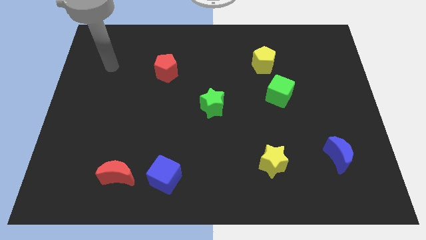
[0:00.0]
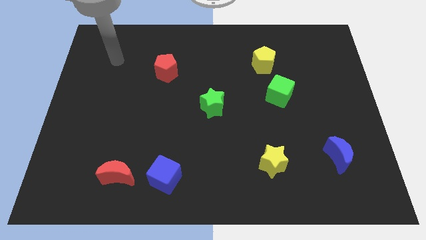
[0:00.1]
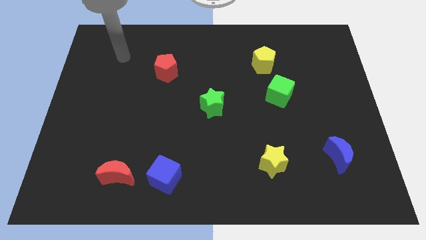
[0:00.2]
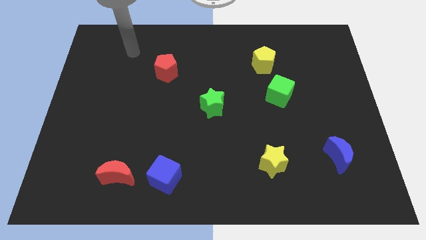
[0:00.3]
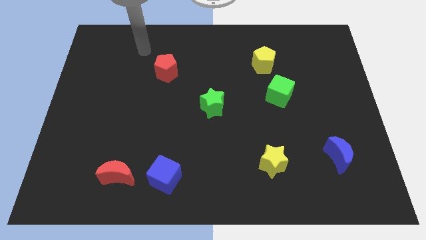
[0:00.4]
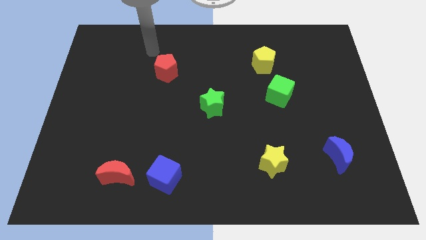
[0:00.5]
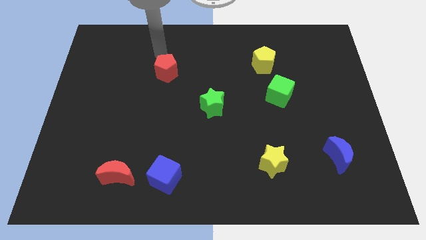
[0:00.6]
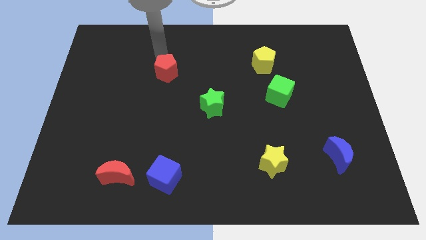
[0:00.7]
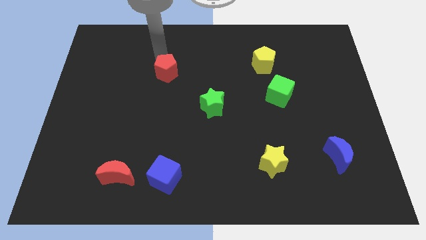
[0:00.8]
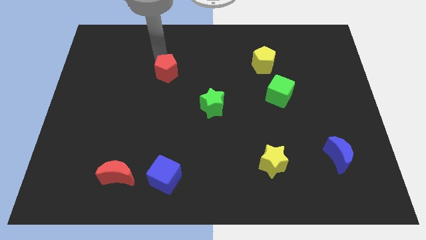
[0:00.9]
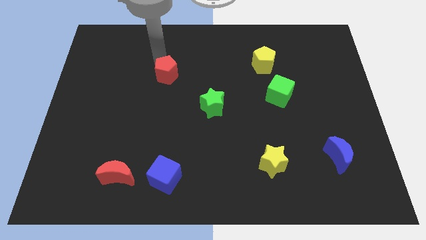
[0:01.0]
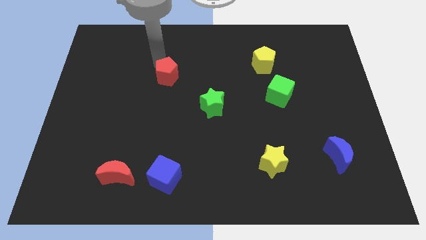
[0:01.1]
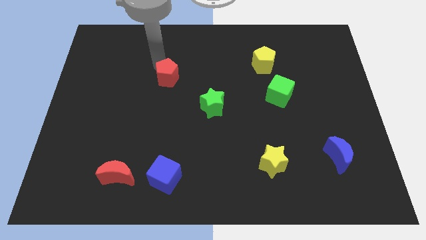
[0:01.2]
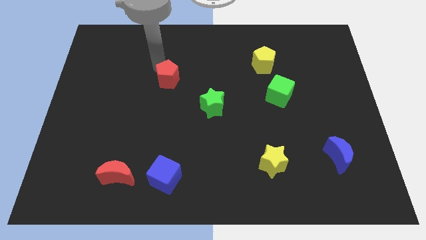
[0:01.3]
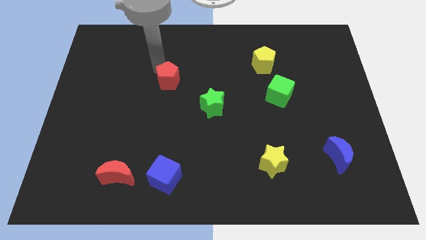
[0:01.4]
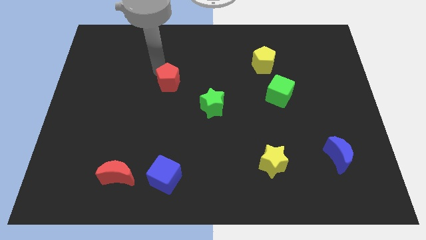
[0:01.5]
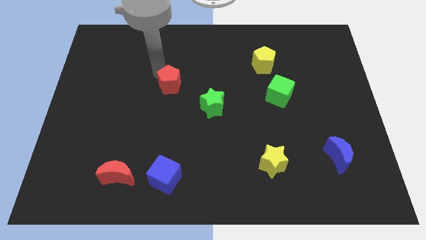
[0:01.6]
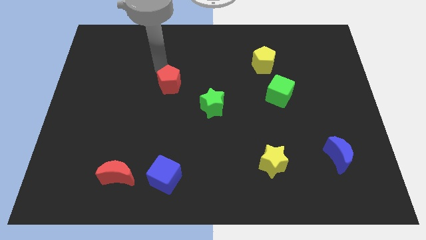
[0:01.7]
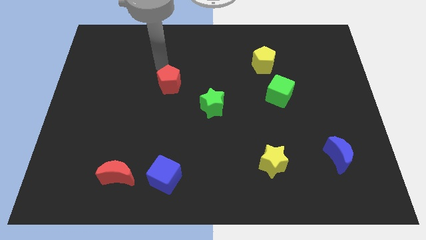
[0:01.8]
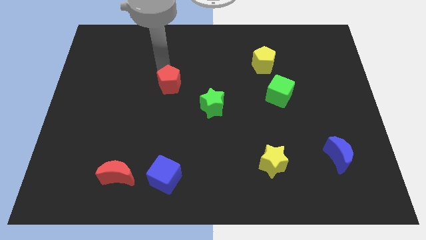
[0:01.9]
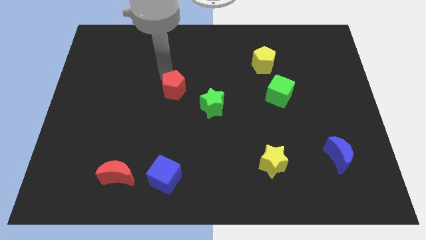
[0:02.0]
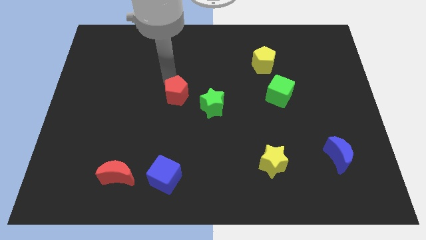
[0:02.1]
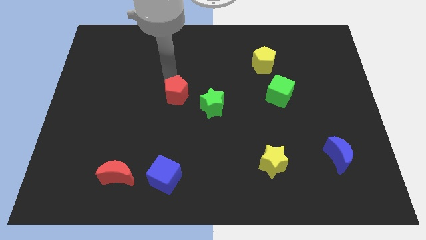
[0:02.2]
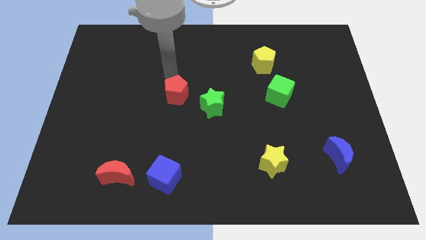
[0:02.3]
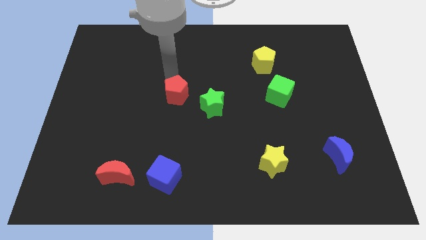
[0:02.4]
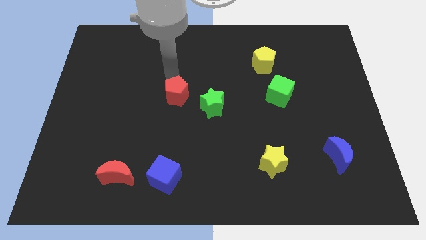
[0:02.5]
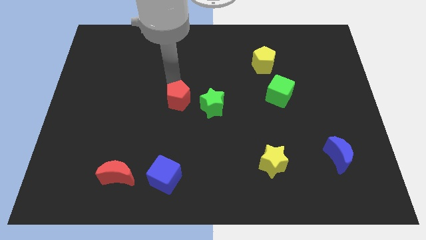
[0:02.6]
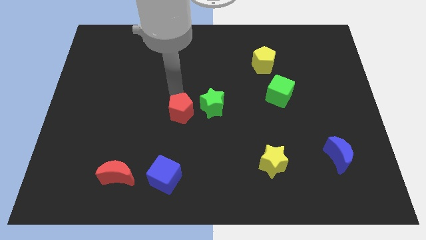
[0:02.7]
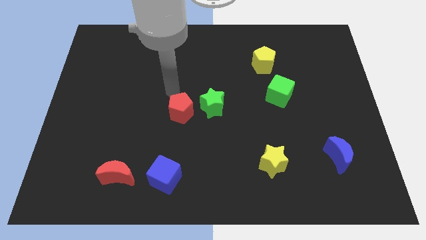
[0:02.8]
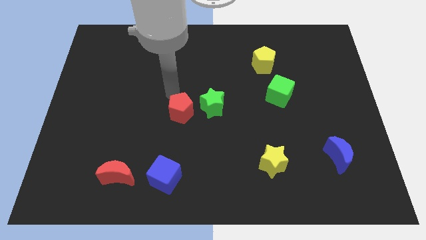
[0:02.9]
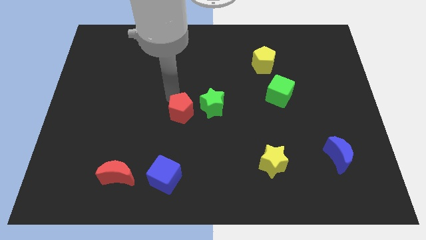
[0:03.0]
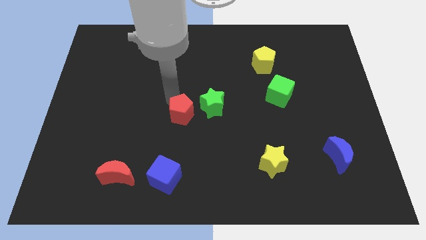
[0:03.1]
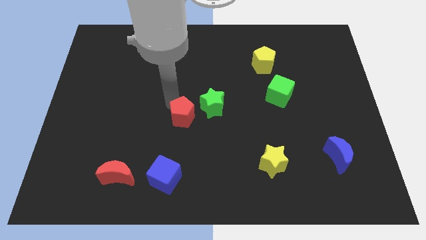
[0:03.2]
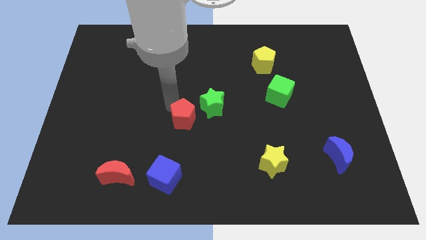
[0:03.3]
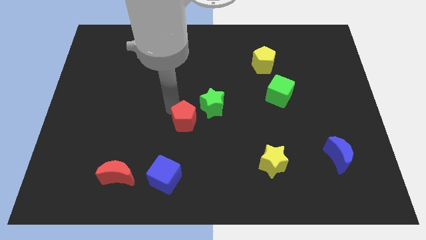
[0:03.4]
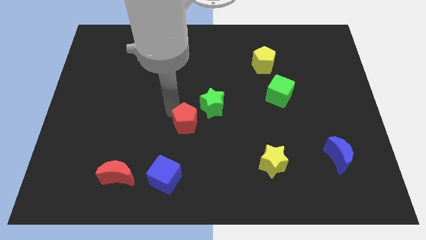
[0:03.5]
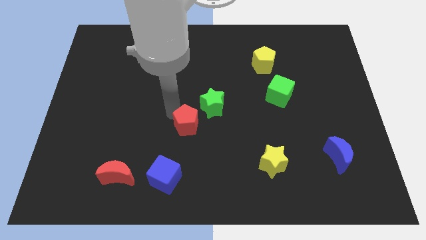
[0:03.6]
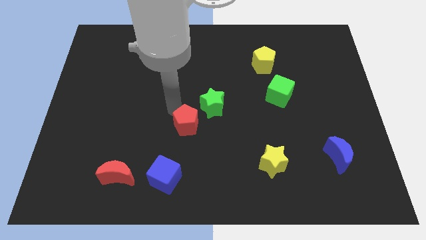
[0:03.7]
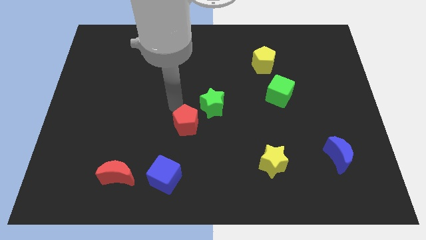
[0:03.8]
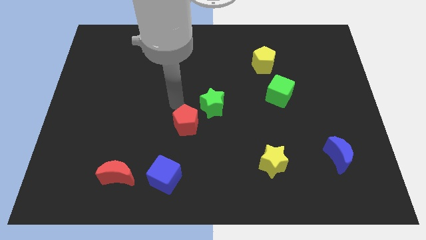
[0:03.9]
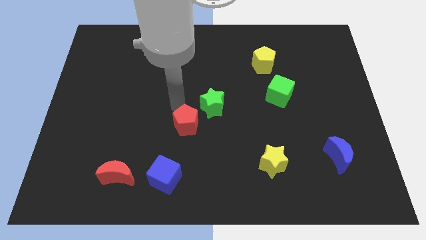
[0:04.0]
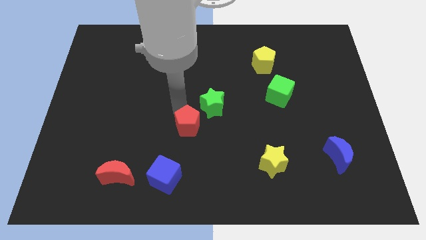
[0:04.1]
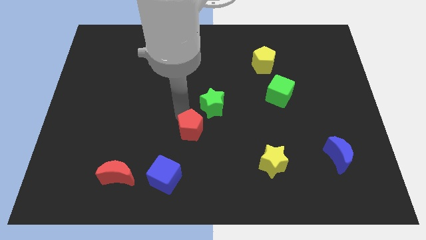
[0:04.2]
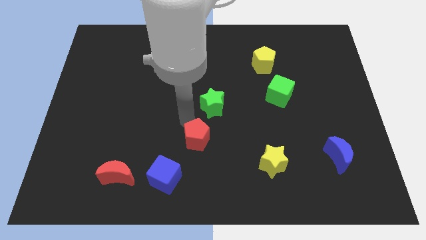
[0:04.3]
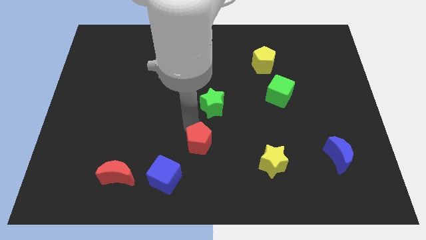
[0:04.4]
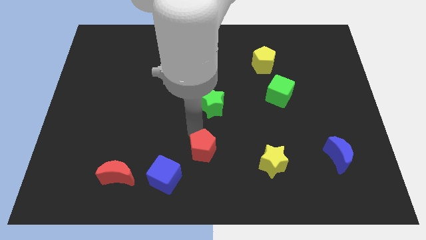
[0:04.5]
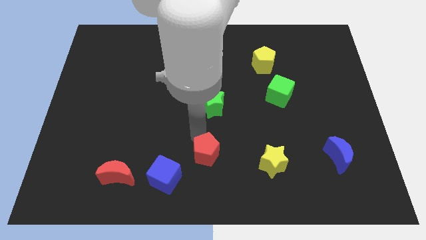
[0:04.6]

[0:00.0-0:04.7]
put the red pentagon to the bottom

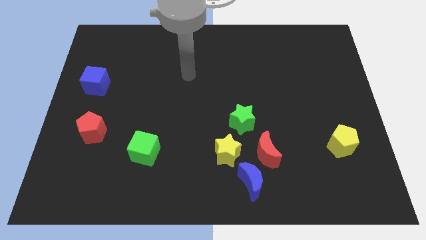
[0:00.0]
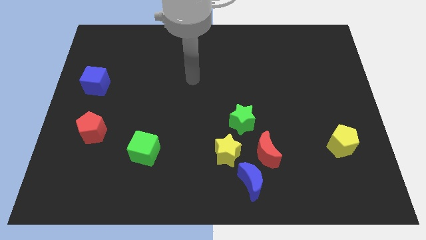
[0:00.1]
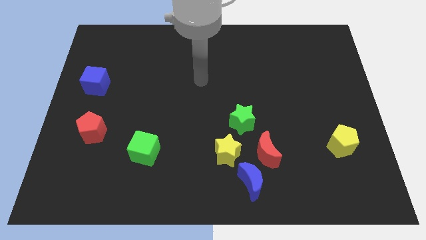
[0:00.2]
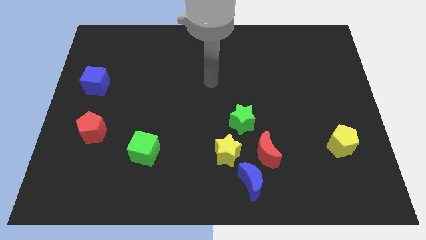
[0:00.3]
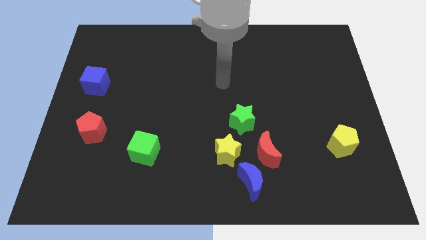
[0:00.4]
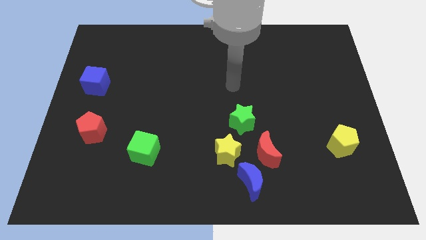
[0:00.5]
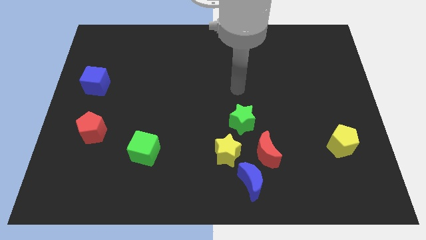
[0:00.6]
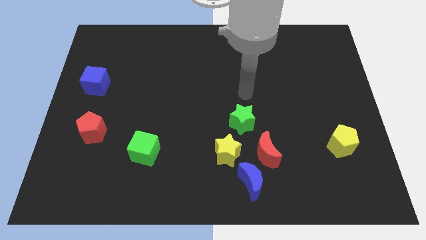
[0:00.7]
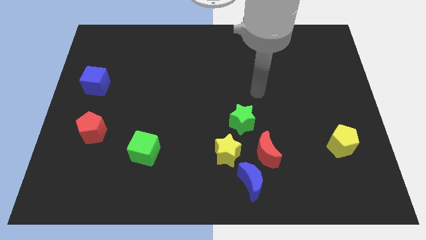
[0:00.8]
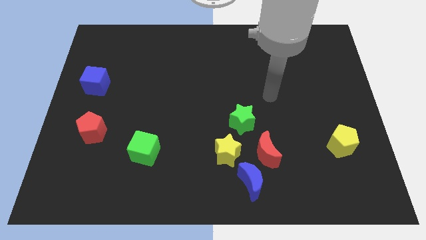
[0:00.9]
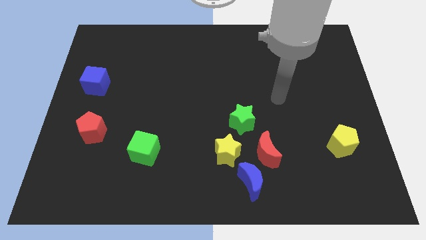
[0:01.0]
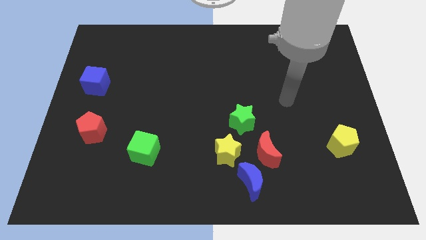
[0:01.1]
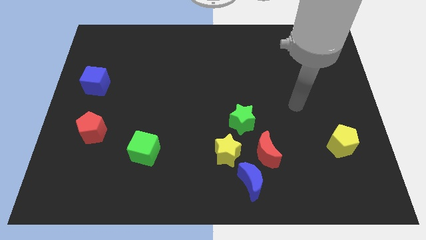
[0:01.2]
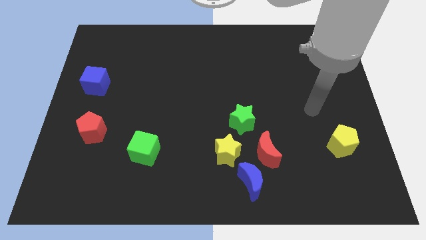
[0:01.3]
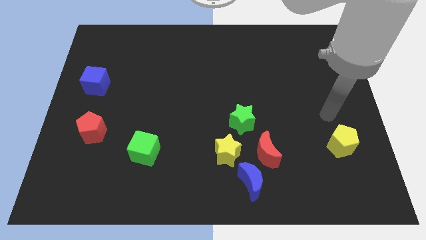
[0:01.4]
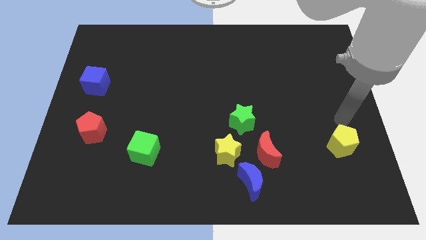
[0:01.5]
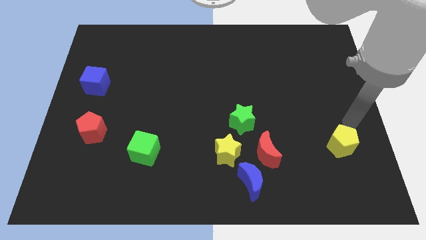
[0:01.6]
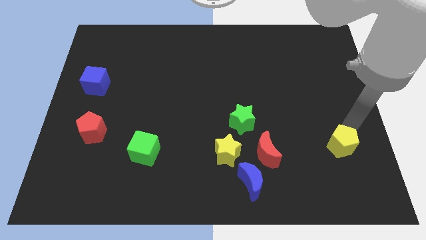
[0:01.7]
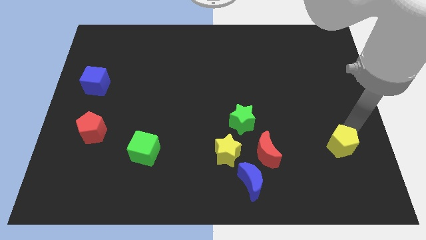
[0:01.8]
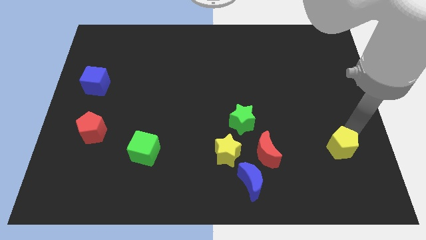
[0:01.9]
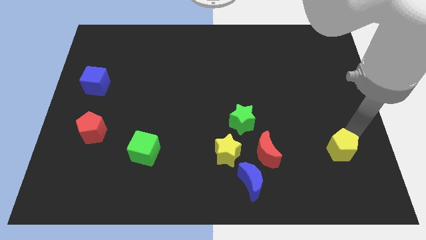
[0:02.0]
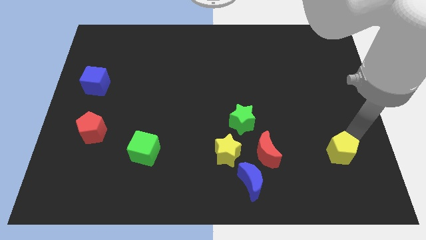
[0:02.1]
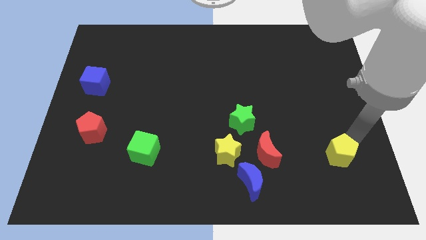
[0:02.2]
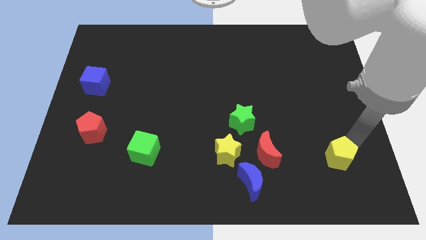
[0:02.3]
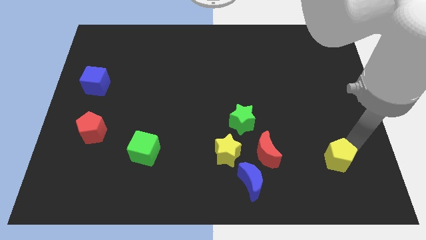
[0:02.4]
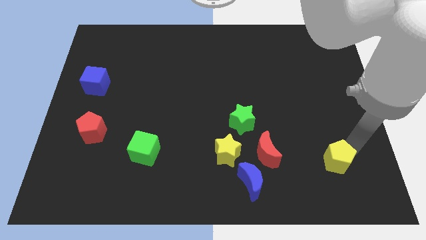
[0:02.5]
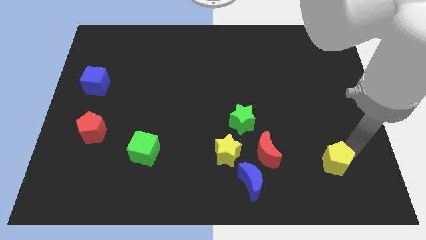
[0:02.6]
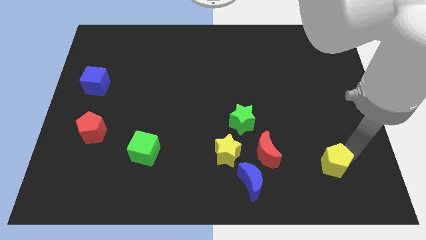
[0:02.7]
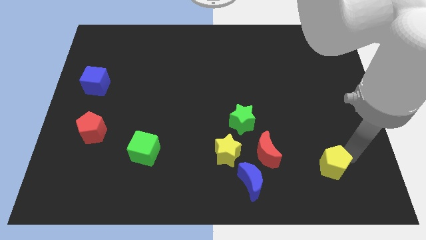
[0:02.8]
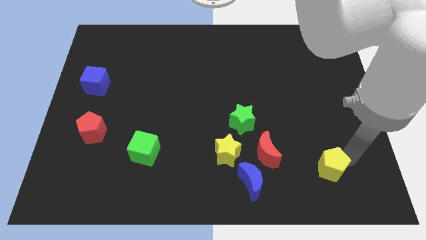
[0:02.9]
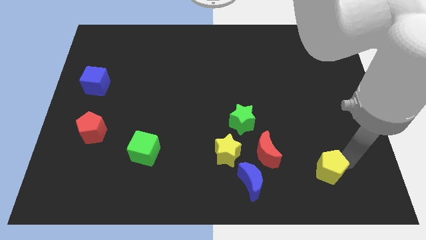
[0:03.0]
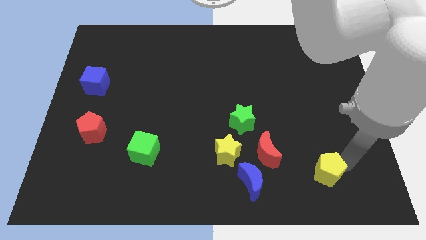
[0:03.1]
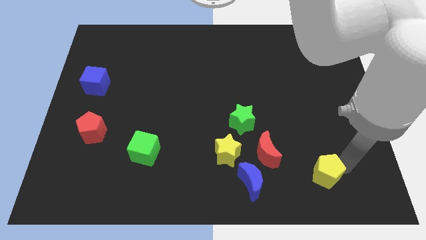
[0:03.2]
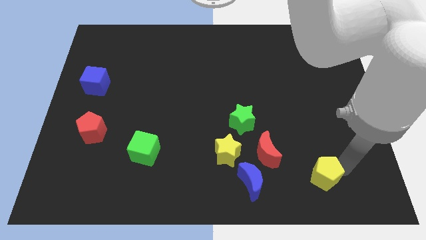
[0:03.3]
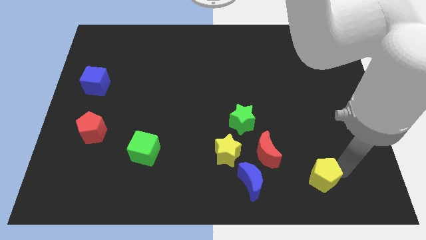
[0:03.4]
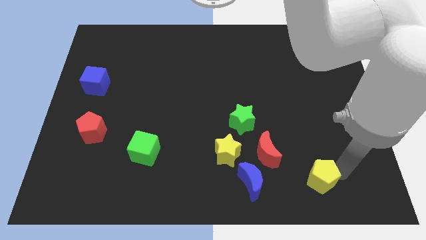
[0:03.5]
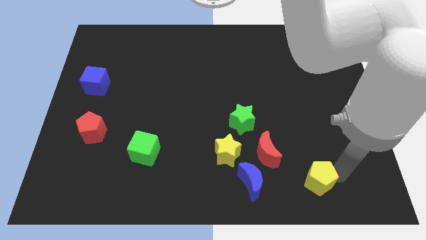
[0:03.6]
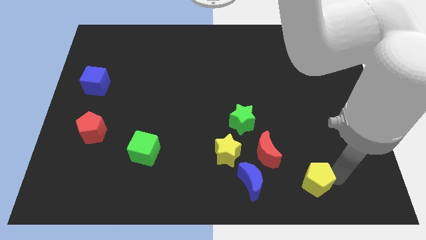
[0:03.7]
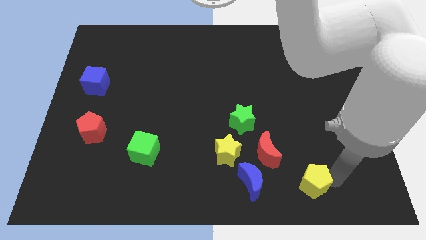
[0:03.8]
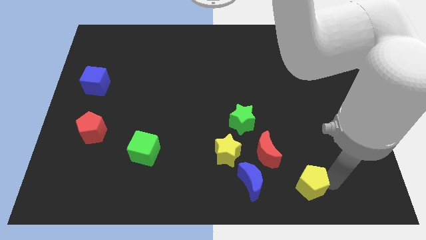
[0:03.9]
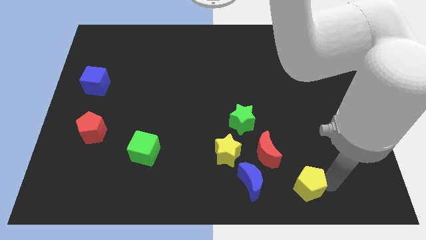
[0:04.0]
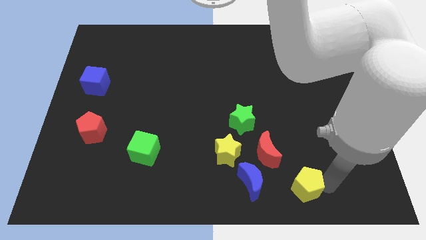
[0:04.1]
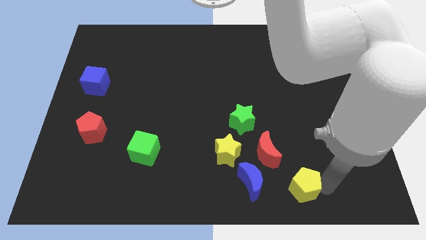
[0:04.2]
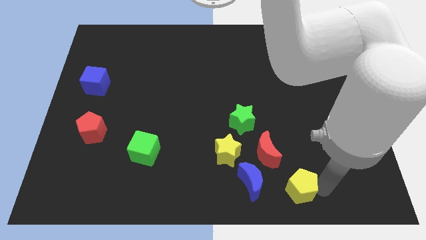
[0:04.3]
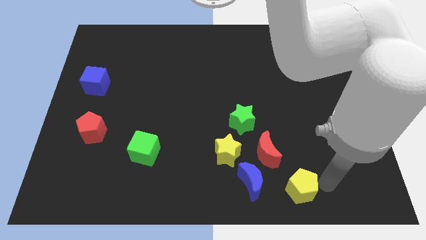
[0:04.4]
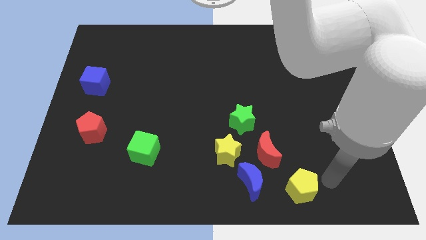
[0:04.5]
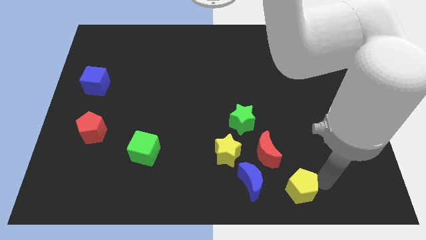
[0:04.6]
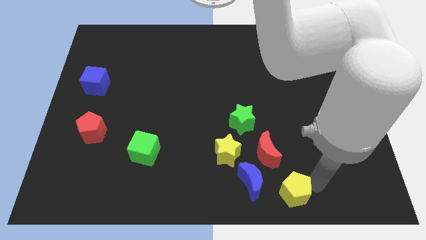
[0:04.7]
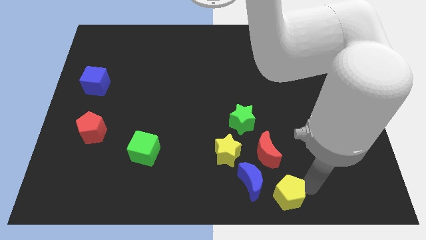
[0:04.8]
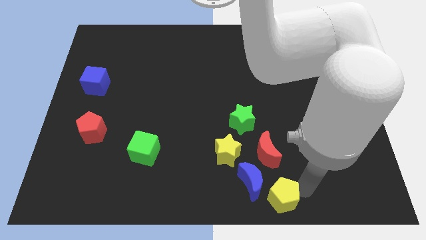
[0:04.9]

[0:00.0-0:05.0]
move the yellow pentagon to the bottom side
